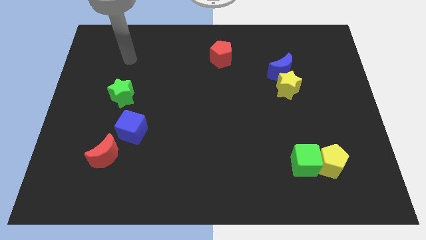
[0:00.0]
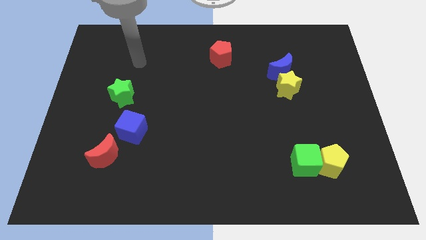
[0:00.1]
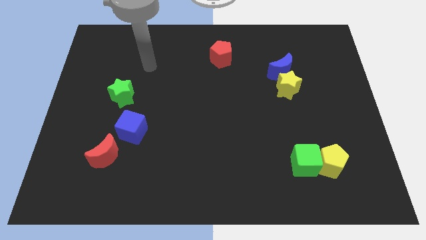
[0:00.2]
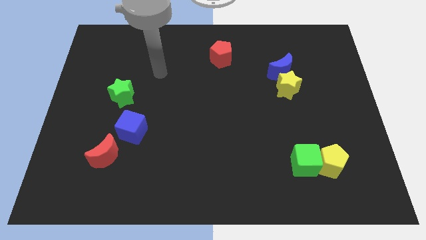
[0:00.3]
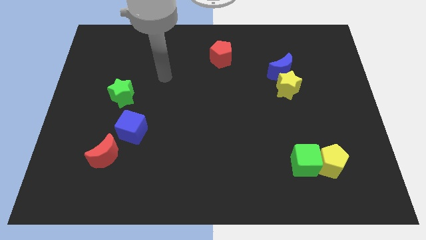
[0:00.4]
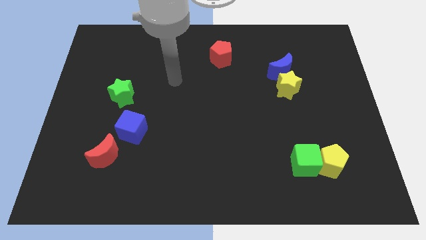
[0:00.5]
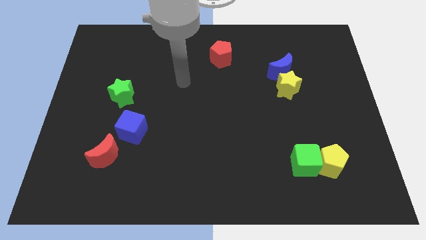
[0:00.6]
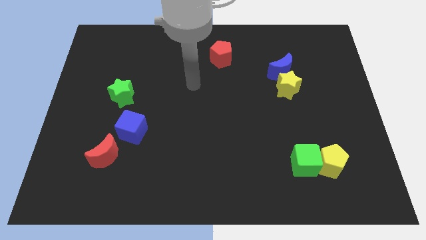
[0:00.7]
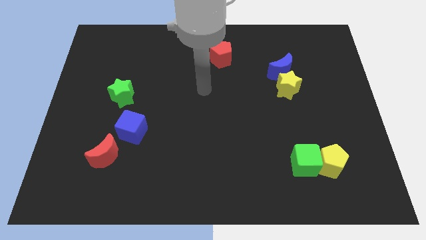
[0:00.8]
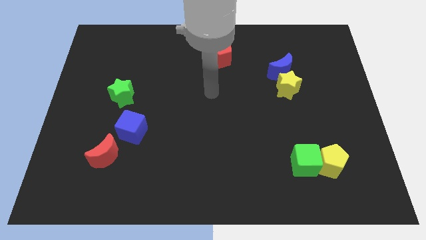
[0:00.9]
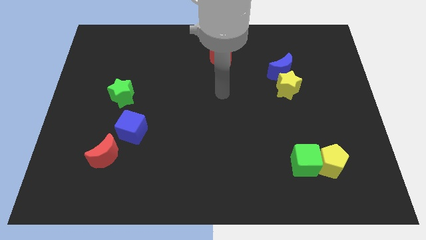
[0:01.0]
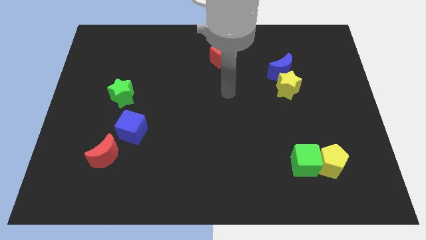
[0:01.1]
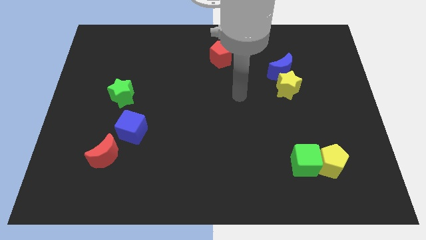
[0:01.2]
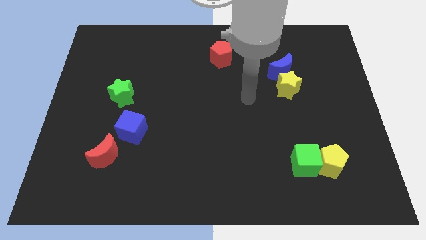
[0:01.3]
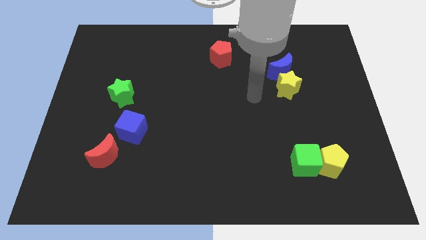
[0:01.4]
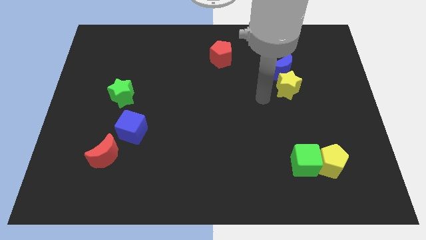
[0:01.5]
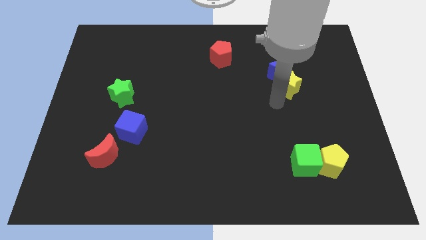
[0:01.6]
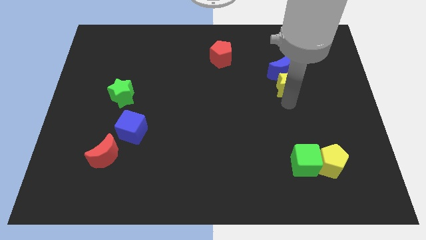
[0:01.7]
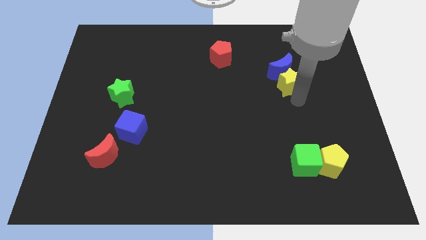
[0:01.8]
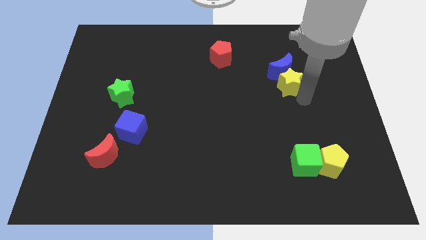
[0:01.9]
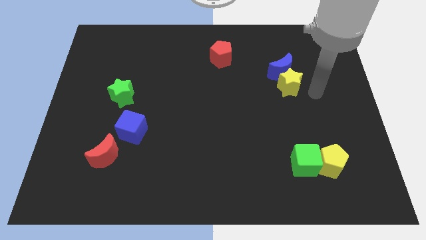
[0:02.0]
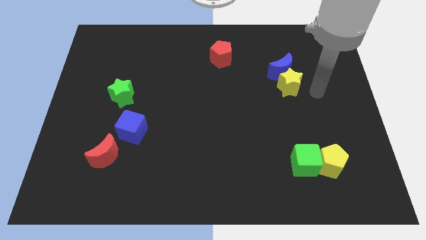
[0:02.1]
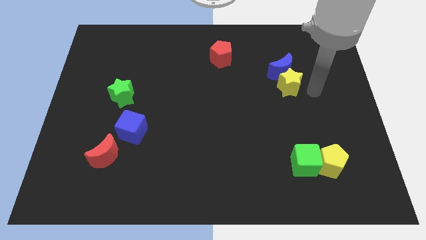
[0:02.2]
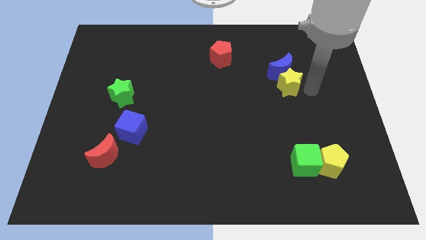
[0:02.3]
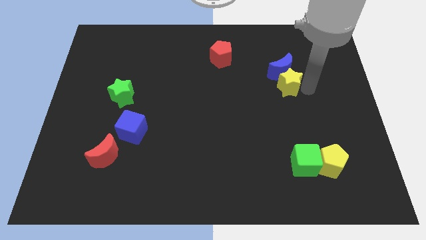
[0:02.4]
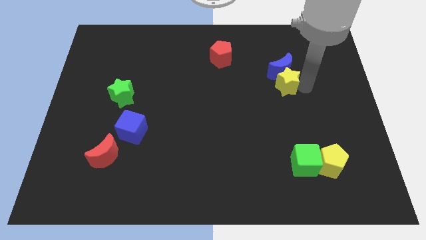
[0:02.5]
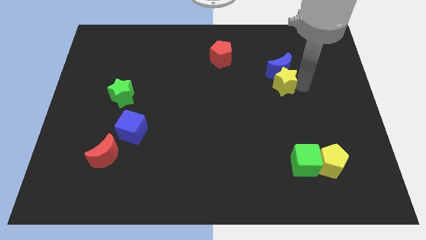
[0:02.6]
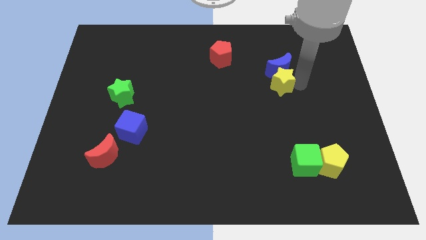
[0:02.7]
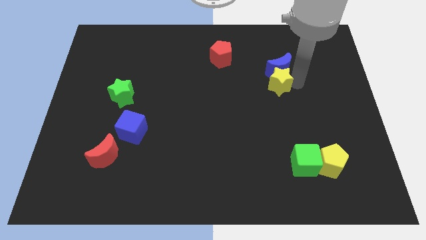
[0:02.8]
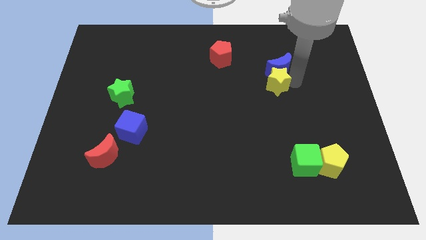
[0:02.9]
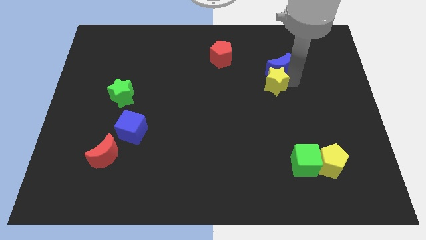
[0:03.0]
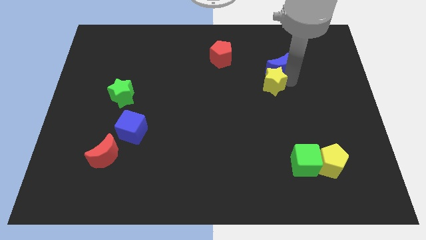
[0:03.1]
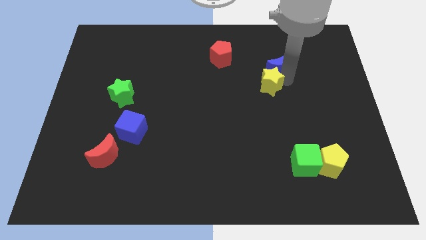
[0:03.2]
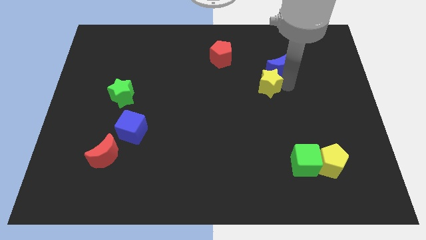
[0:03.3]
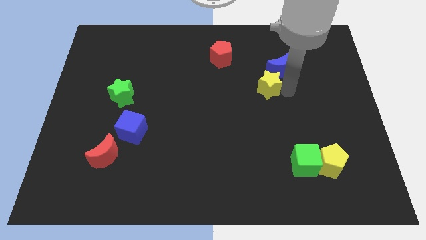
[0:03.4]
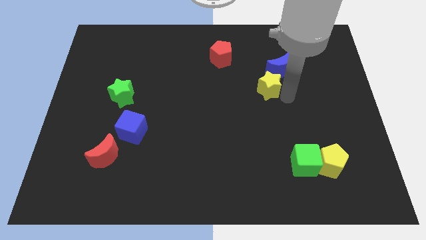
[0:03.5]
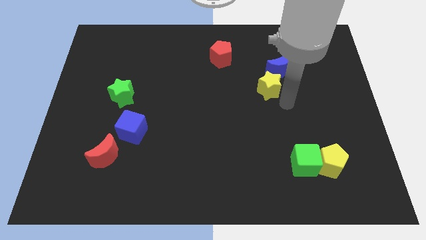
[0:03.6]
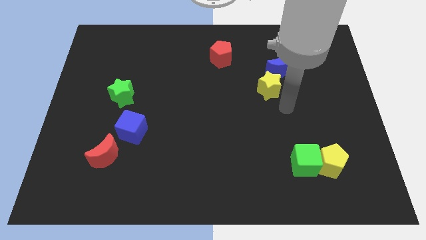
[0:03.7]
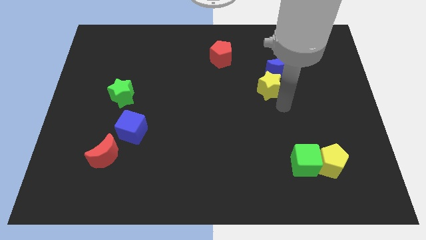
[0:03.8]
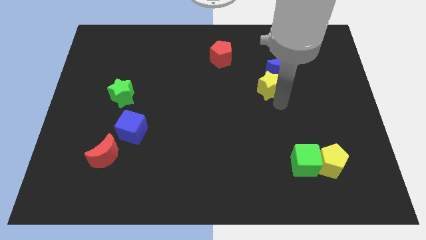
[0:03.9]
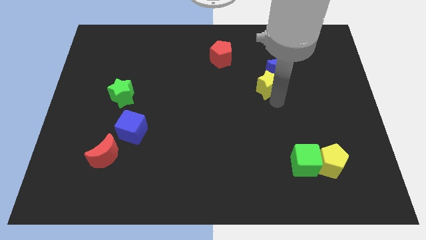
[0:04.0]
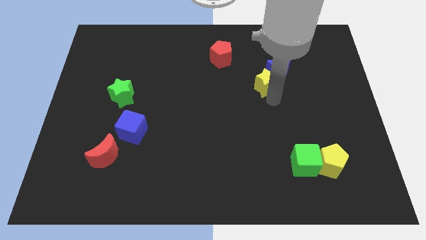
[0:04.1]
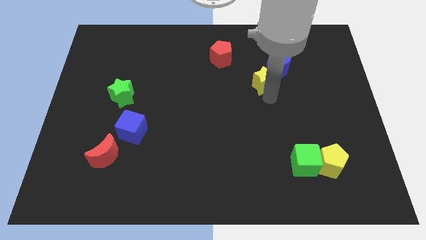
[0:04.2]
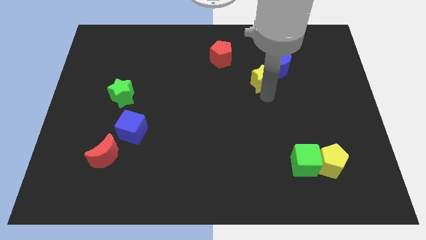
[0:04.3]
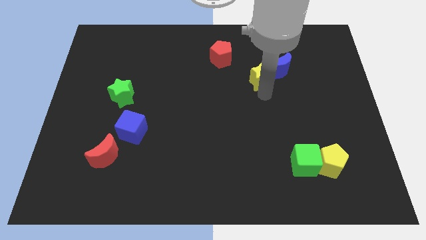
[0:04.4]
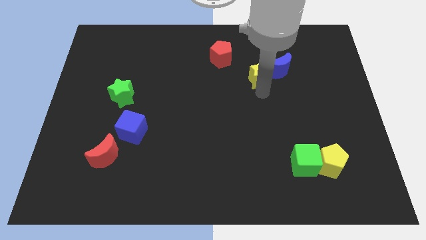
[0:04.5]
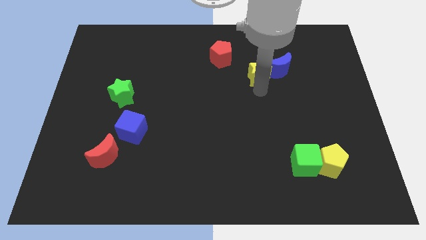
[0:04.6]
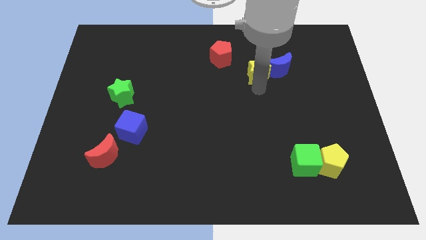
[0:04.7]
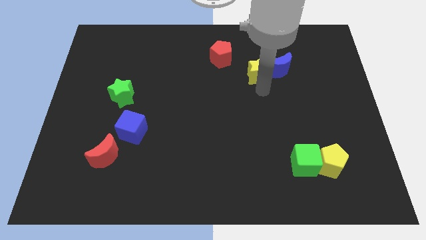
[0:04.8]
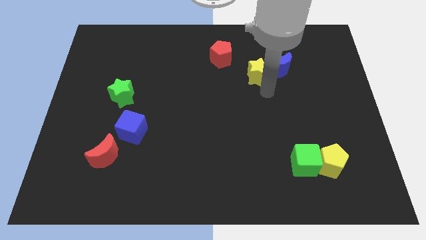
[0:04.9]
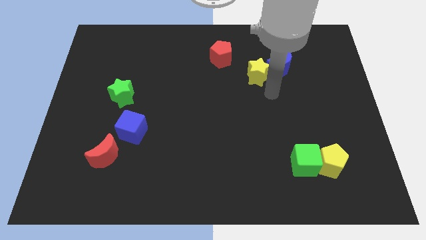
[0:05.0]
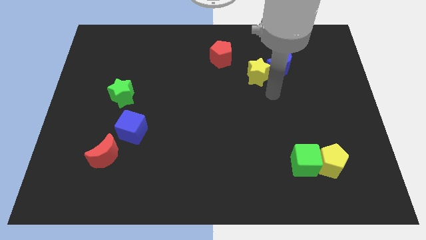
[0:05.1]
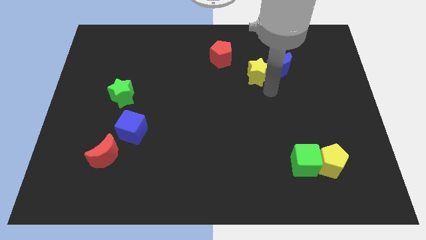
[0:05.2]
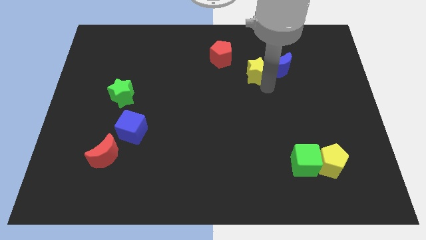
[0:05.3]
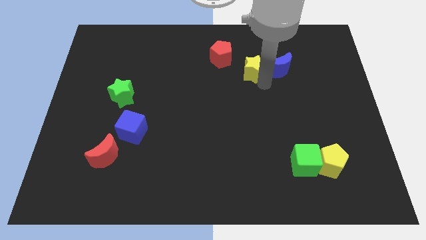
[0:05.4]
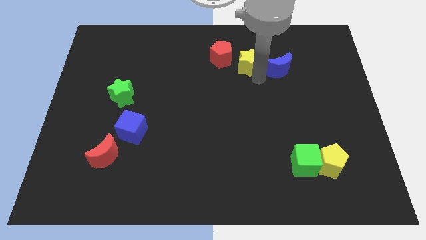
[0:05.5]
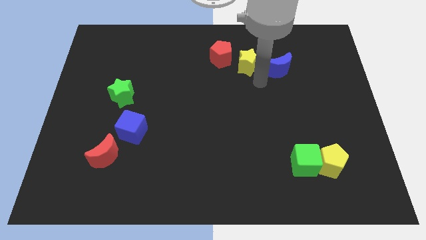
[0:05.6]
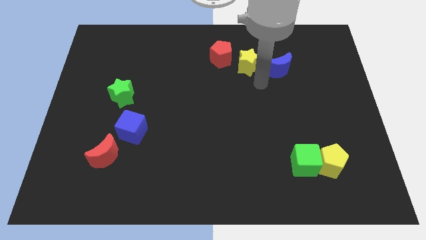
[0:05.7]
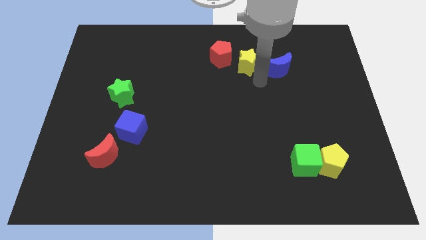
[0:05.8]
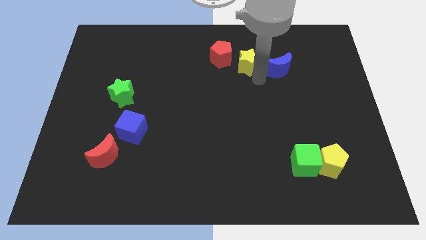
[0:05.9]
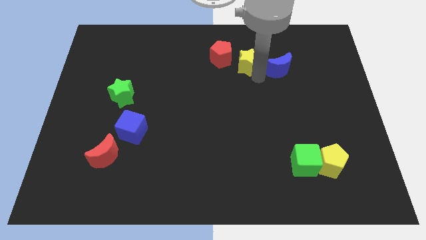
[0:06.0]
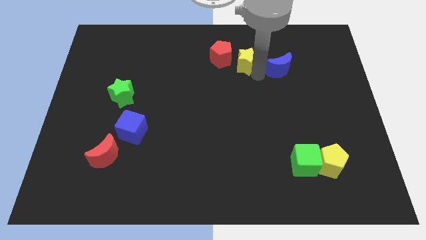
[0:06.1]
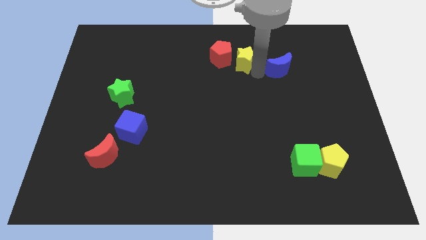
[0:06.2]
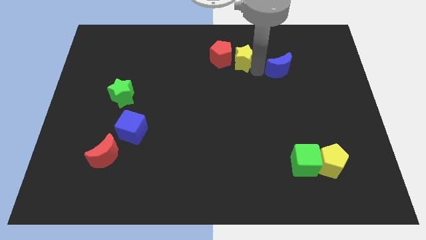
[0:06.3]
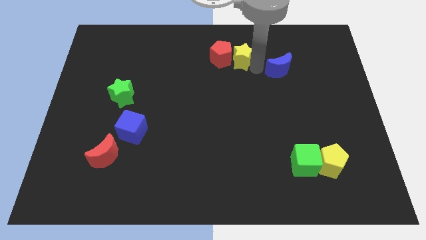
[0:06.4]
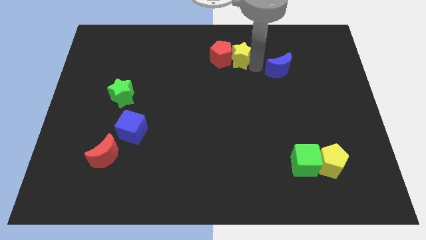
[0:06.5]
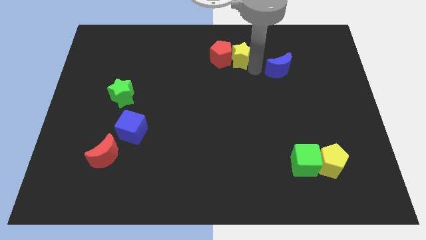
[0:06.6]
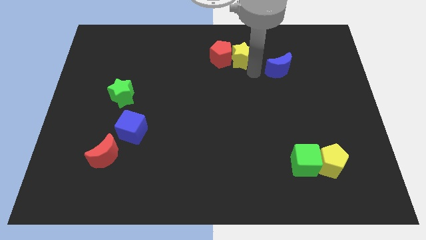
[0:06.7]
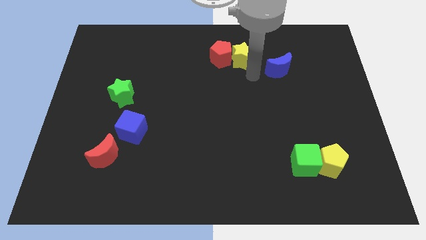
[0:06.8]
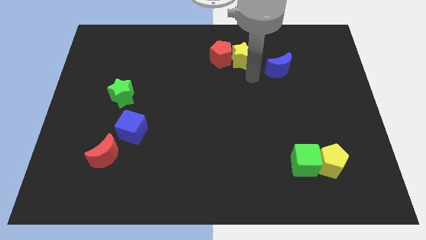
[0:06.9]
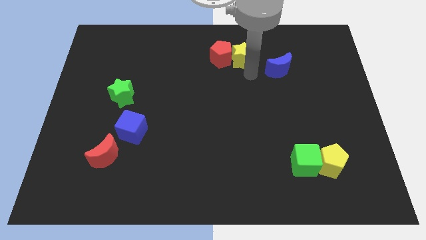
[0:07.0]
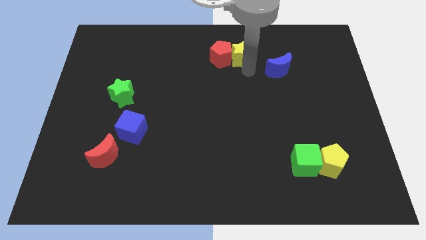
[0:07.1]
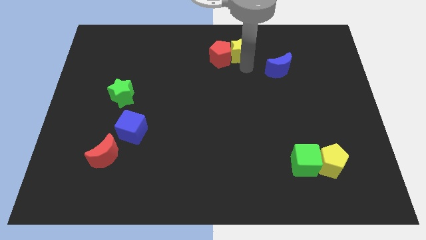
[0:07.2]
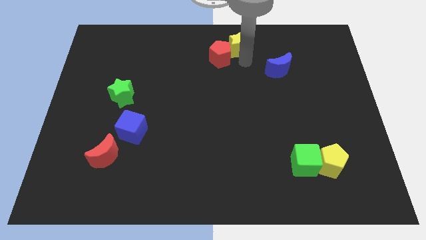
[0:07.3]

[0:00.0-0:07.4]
move the yellow star to the top side
